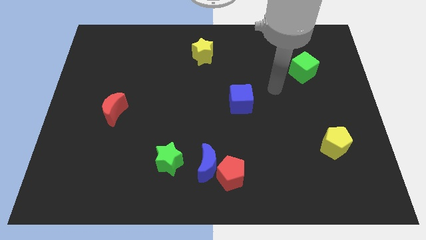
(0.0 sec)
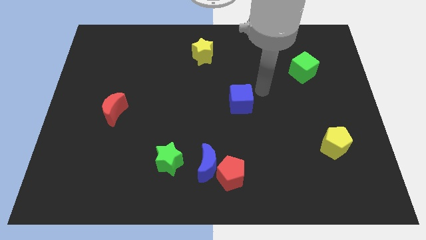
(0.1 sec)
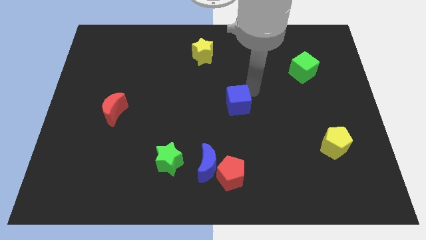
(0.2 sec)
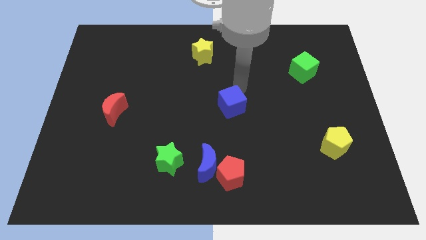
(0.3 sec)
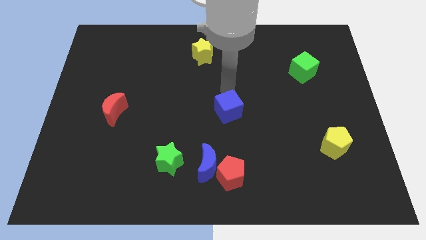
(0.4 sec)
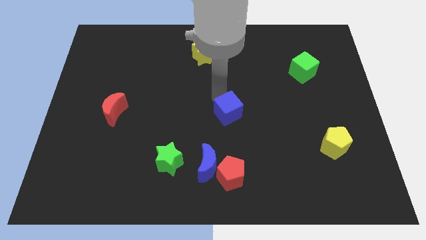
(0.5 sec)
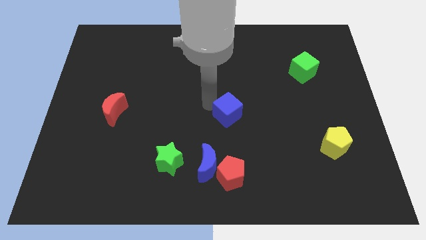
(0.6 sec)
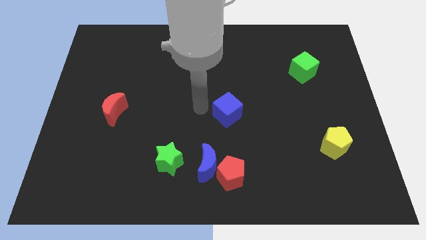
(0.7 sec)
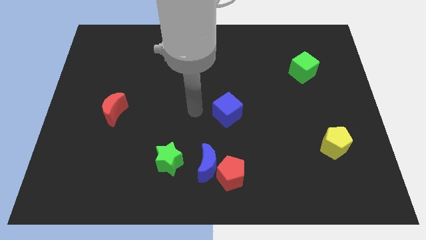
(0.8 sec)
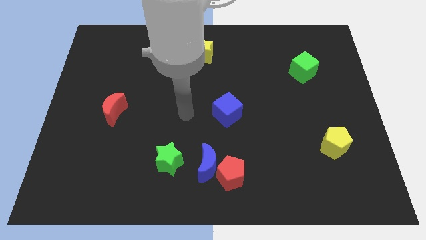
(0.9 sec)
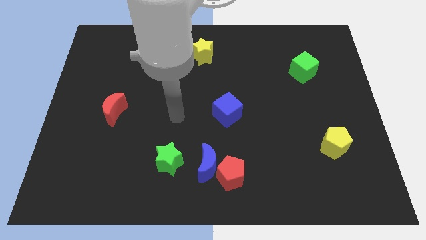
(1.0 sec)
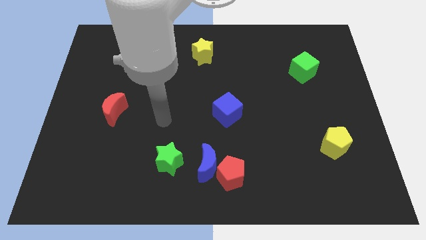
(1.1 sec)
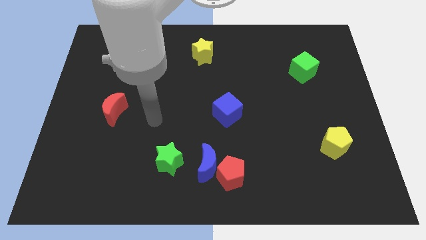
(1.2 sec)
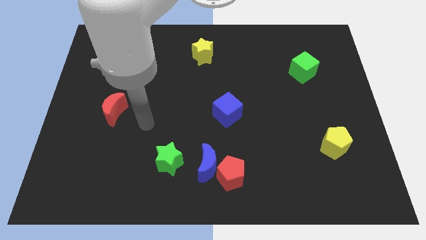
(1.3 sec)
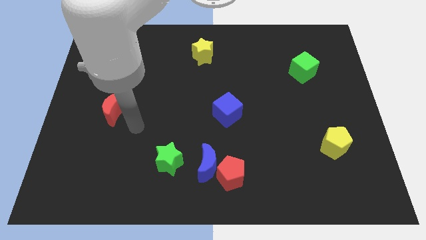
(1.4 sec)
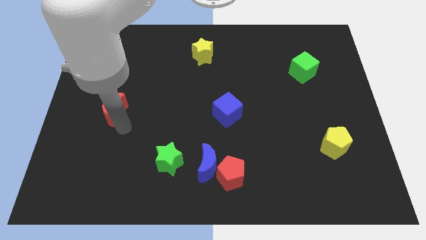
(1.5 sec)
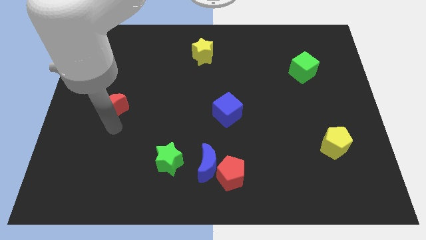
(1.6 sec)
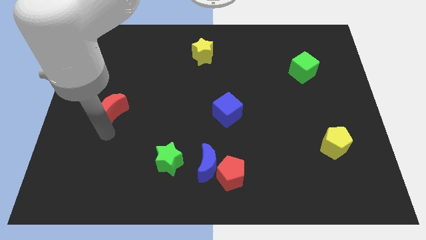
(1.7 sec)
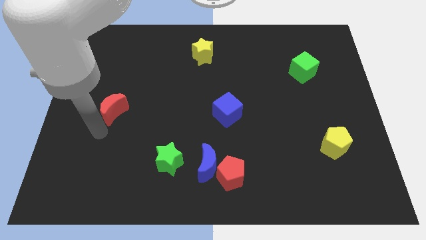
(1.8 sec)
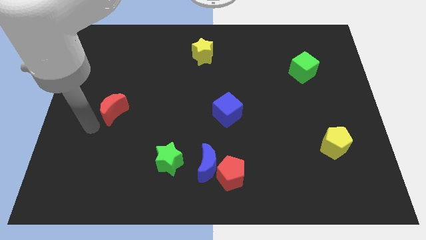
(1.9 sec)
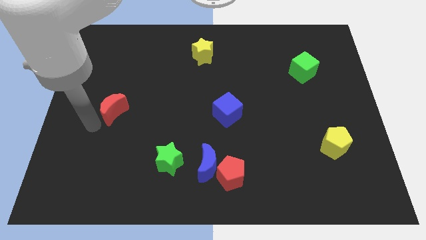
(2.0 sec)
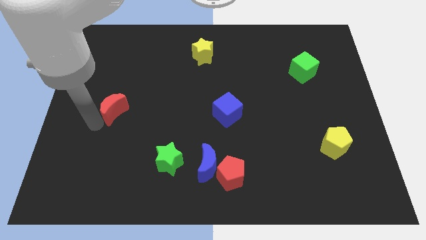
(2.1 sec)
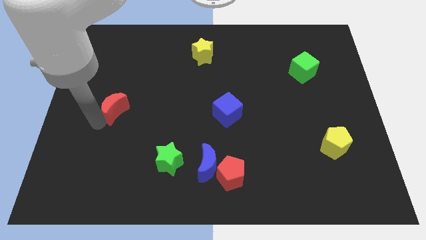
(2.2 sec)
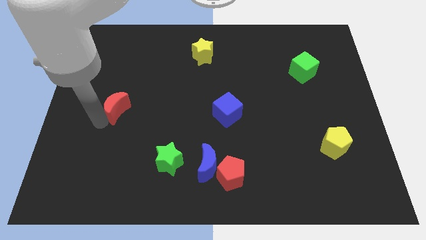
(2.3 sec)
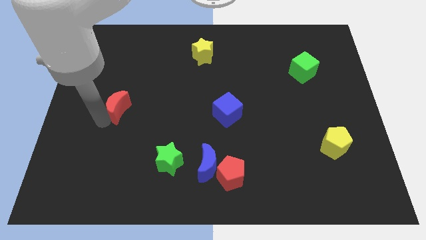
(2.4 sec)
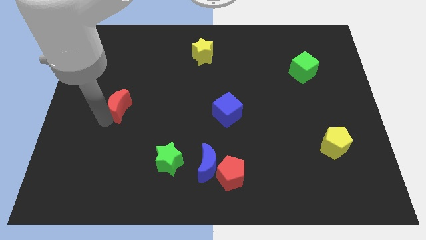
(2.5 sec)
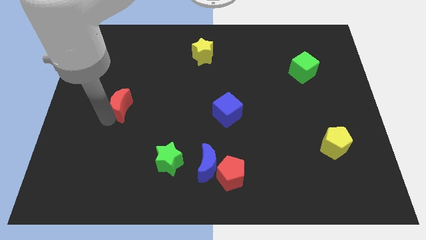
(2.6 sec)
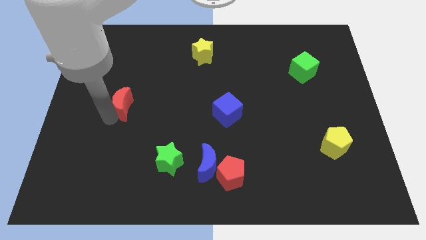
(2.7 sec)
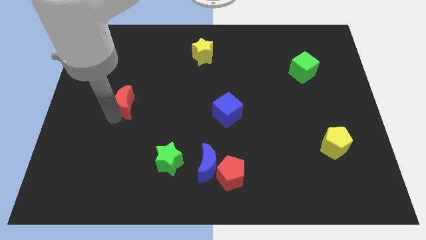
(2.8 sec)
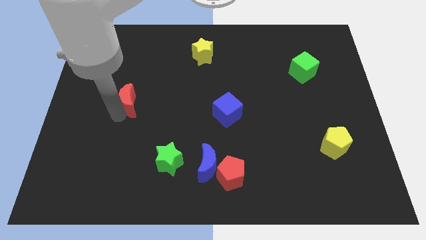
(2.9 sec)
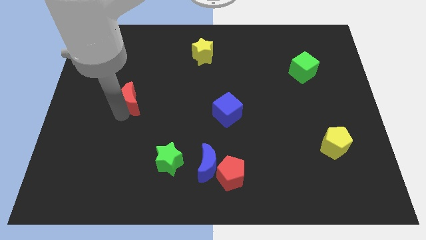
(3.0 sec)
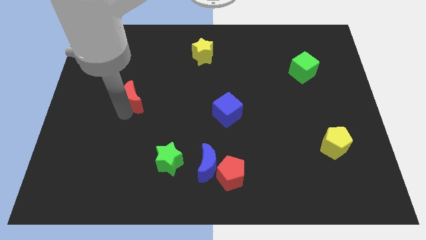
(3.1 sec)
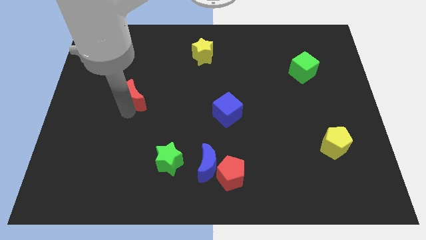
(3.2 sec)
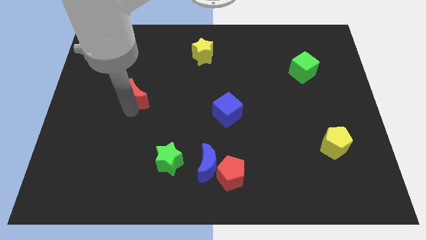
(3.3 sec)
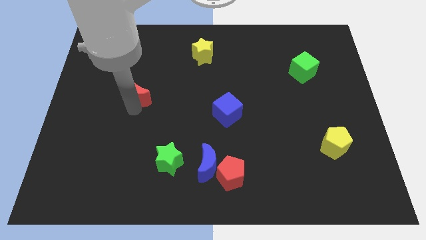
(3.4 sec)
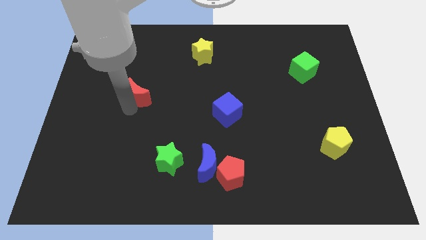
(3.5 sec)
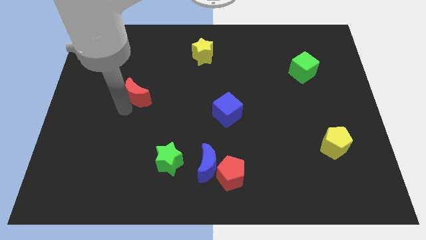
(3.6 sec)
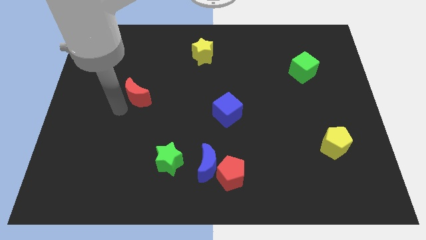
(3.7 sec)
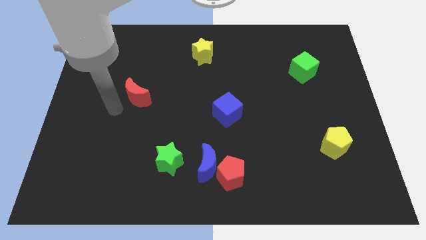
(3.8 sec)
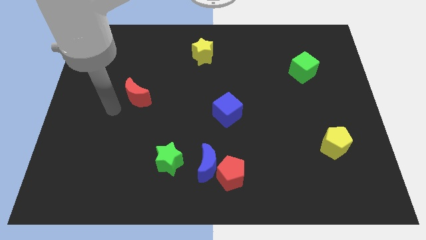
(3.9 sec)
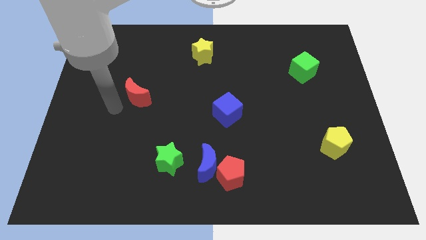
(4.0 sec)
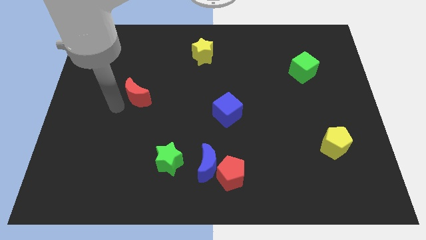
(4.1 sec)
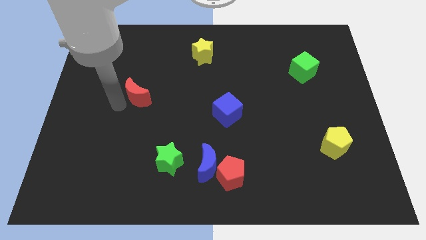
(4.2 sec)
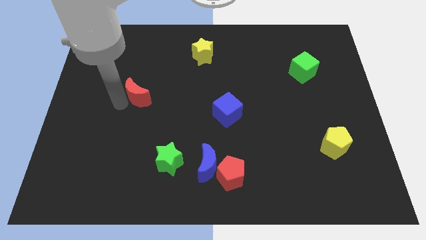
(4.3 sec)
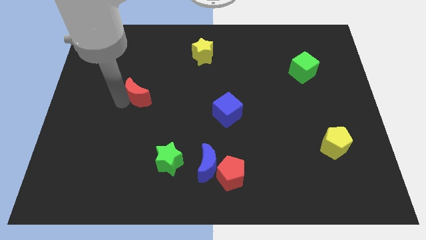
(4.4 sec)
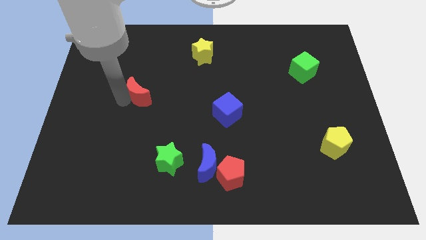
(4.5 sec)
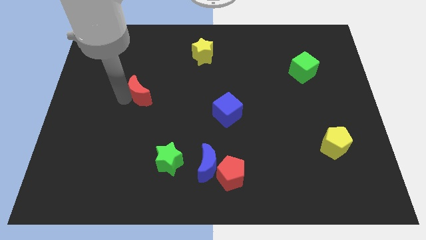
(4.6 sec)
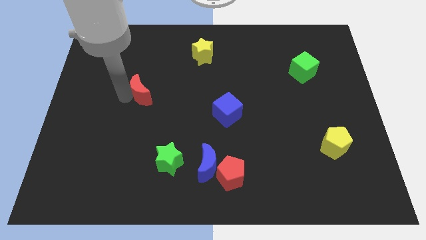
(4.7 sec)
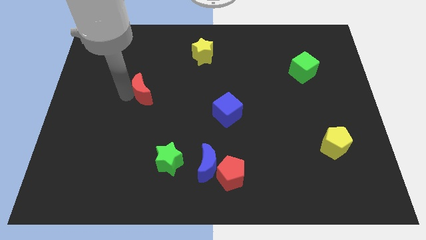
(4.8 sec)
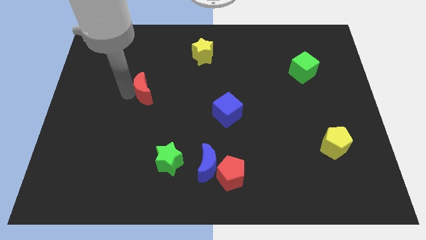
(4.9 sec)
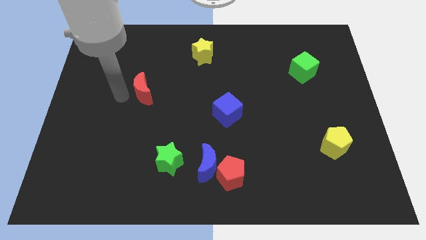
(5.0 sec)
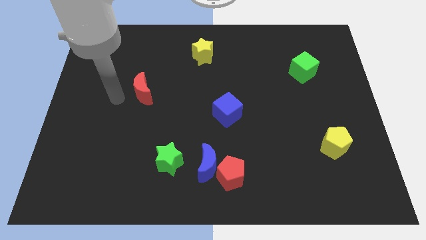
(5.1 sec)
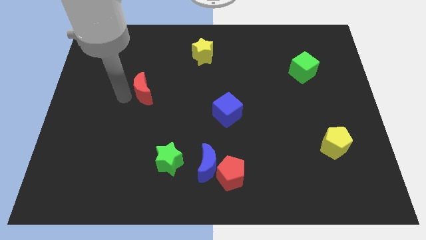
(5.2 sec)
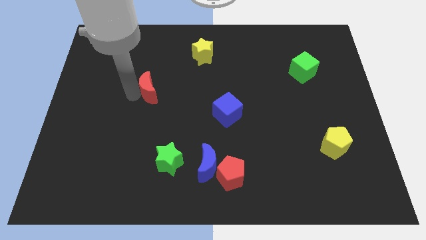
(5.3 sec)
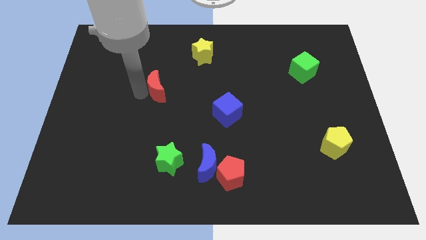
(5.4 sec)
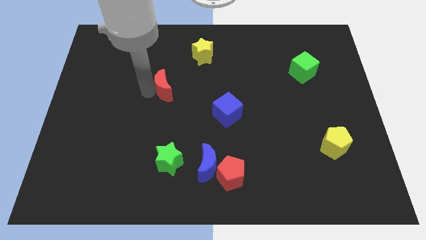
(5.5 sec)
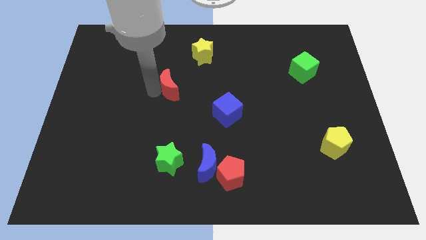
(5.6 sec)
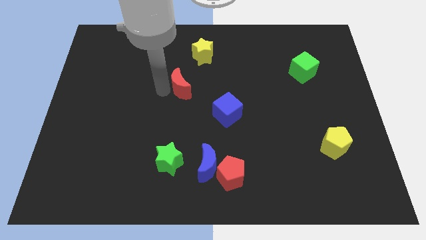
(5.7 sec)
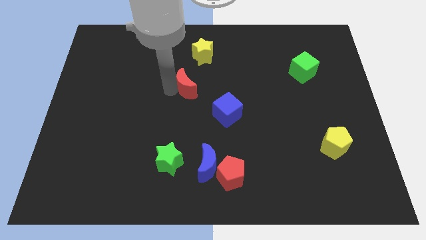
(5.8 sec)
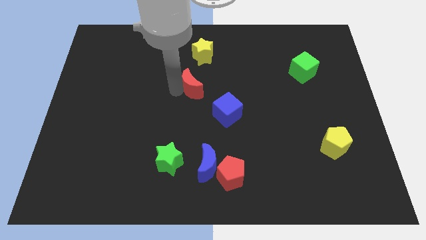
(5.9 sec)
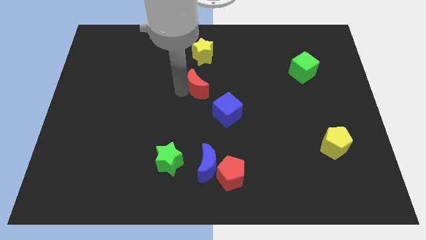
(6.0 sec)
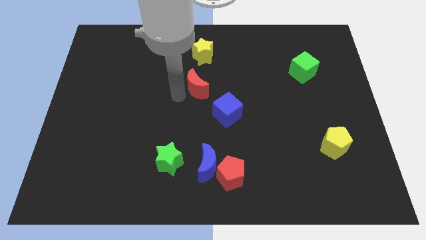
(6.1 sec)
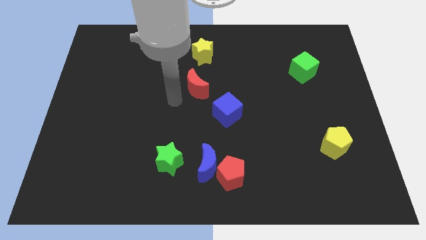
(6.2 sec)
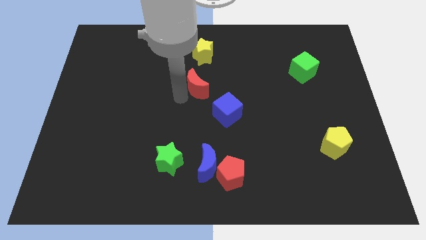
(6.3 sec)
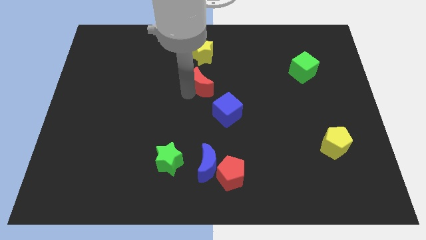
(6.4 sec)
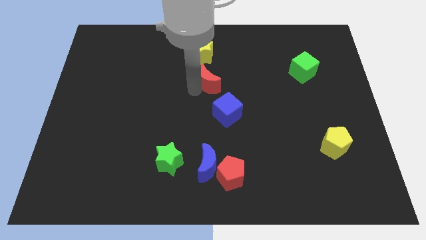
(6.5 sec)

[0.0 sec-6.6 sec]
push the red moon above the blue cube

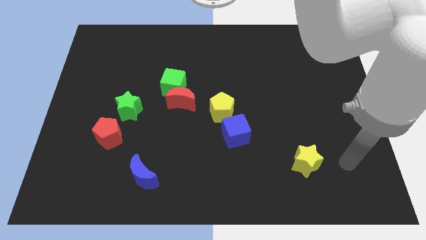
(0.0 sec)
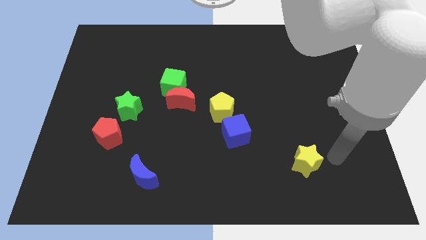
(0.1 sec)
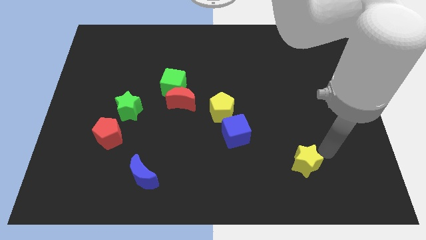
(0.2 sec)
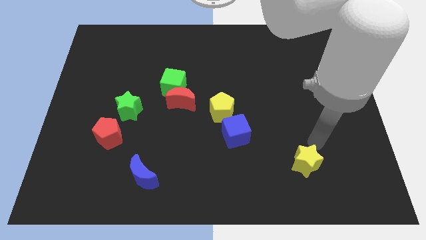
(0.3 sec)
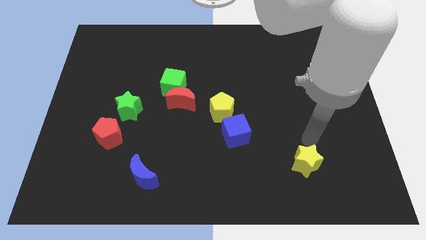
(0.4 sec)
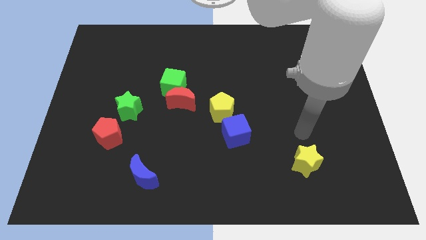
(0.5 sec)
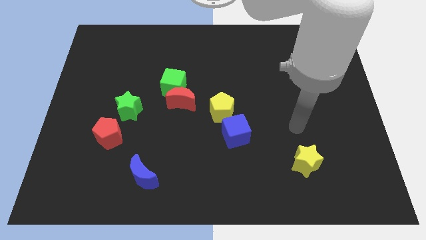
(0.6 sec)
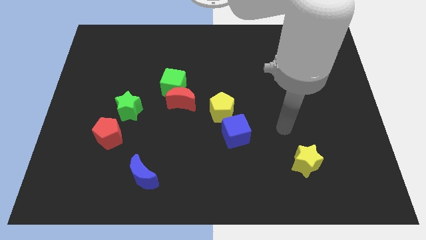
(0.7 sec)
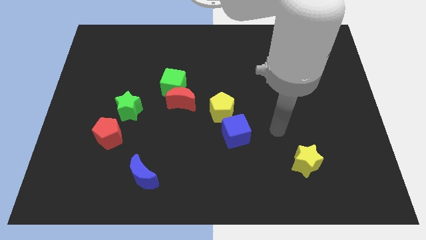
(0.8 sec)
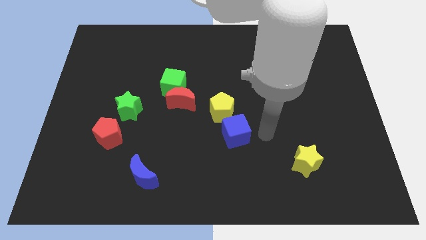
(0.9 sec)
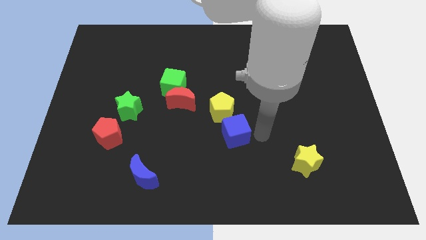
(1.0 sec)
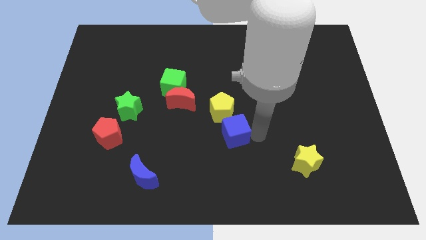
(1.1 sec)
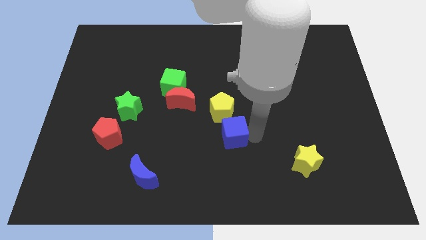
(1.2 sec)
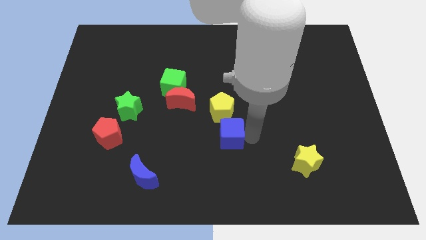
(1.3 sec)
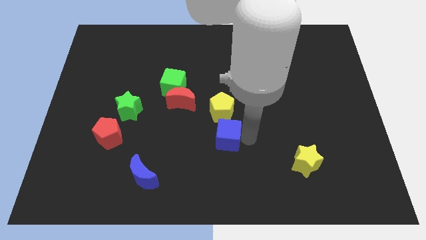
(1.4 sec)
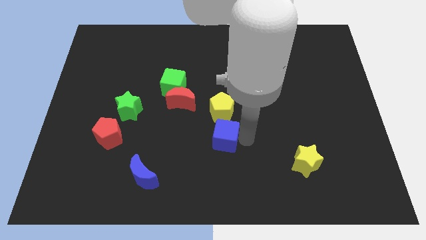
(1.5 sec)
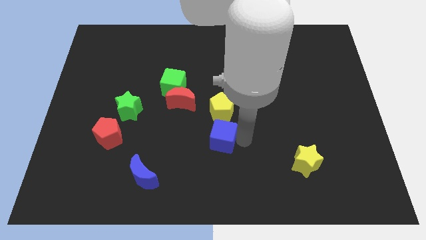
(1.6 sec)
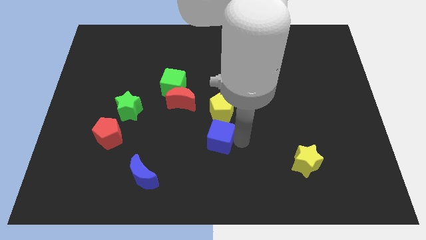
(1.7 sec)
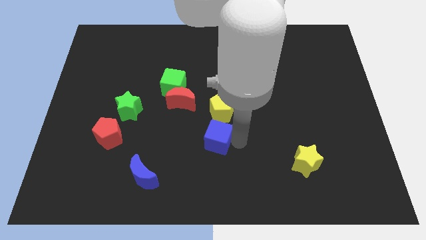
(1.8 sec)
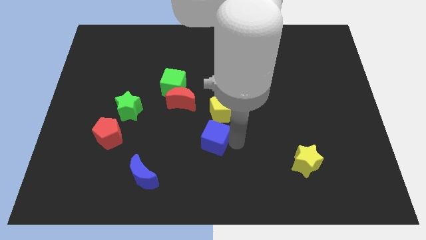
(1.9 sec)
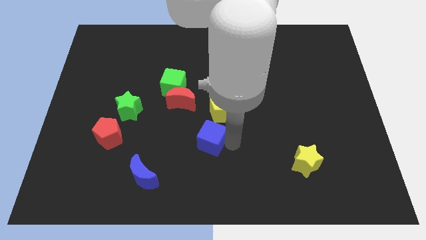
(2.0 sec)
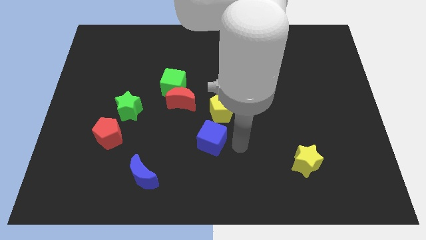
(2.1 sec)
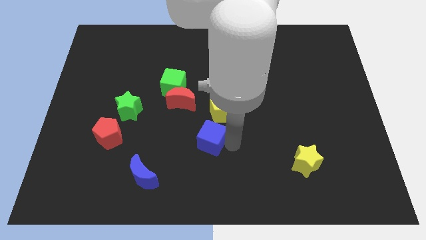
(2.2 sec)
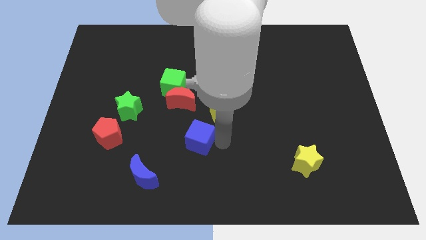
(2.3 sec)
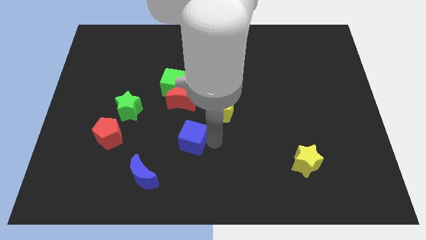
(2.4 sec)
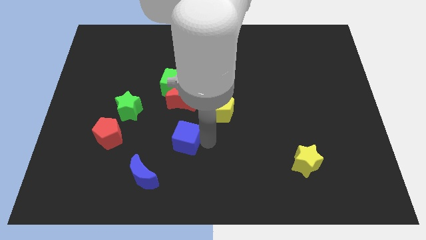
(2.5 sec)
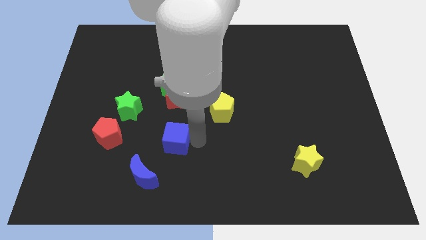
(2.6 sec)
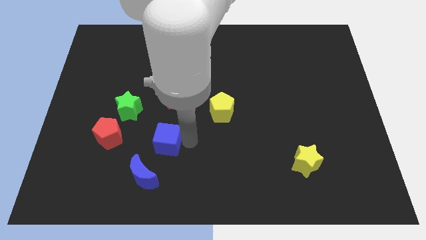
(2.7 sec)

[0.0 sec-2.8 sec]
move the blue cube to the top of the blue moon
